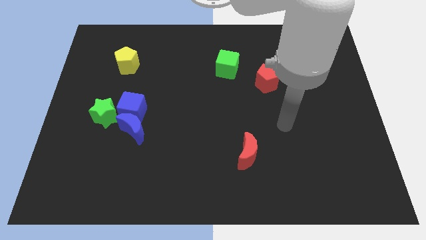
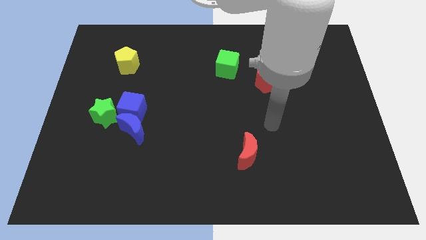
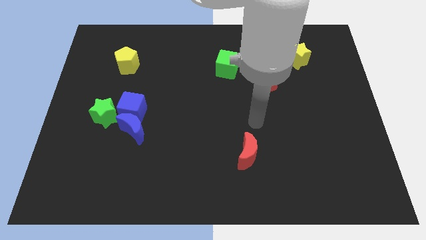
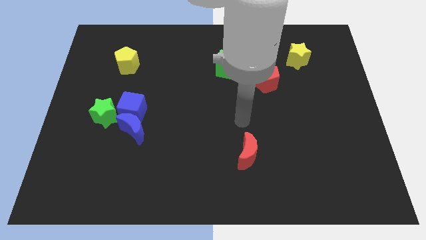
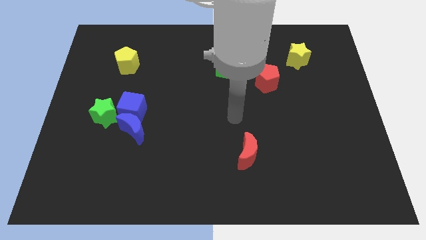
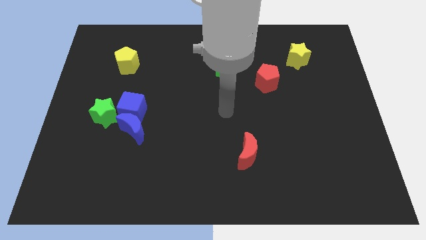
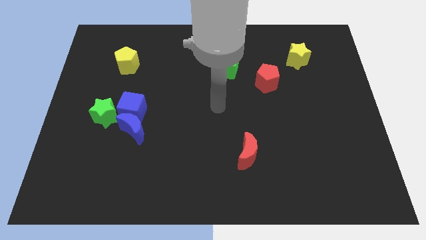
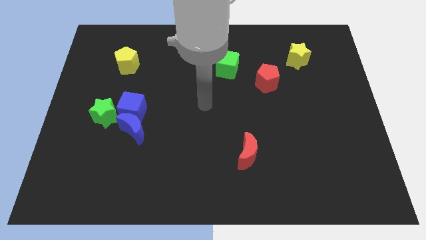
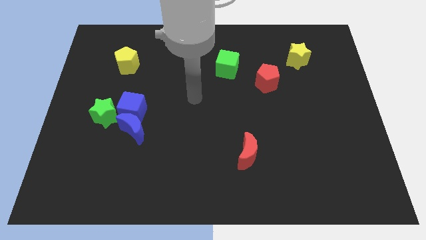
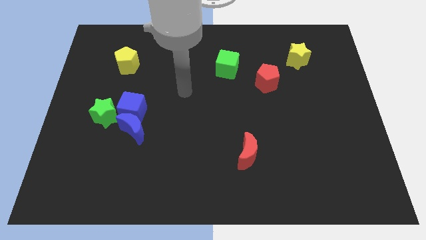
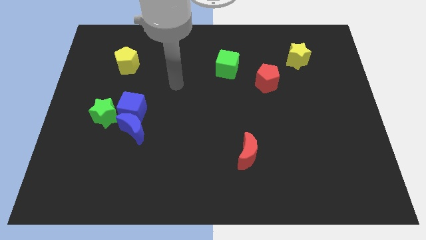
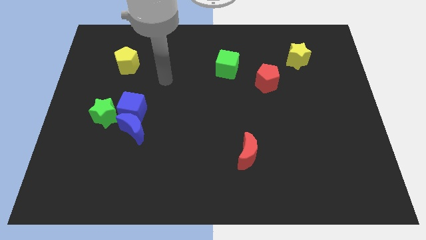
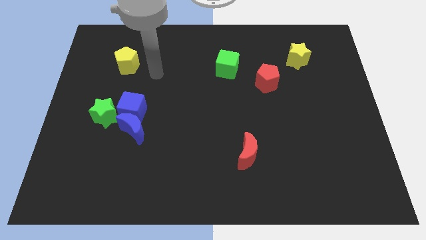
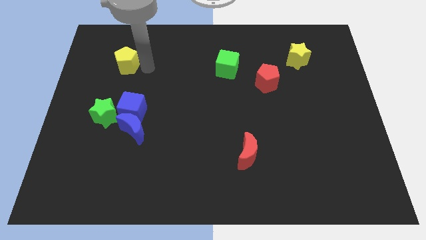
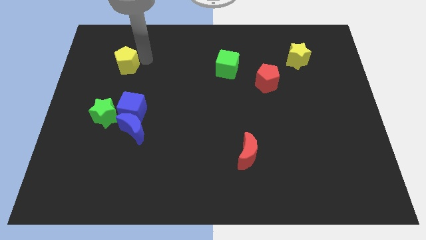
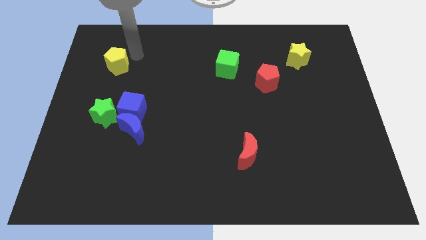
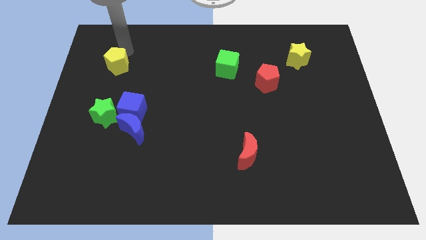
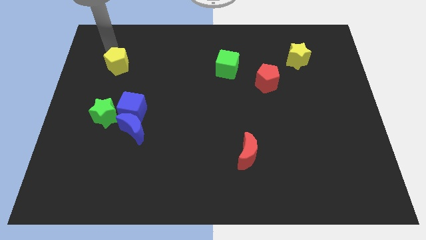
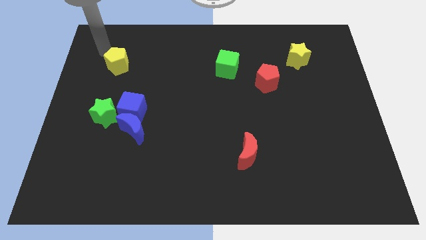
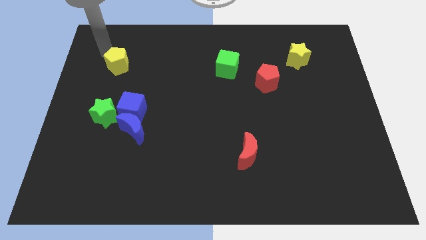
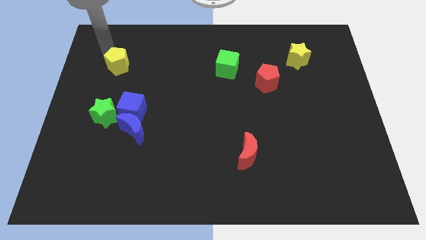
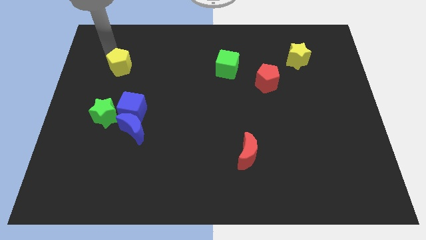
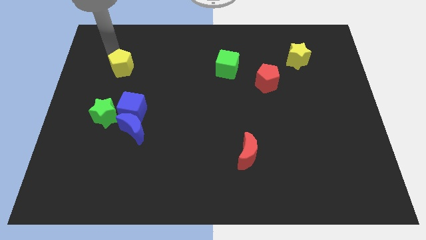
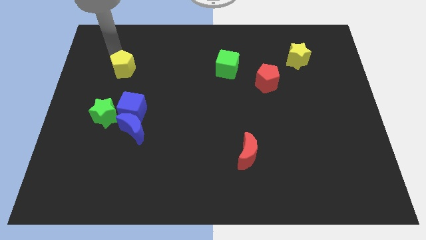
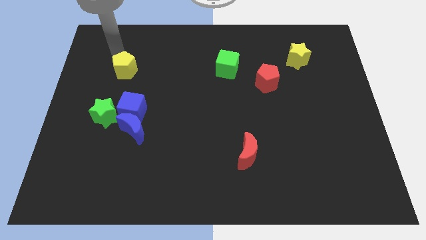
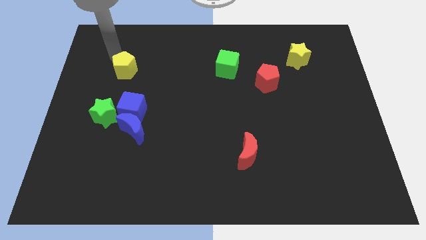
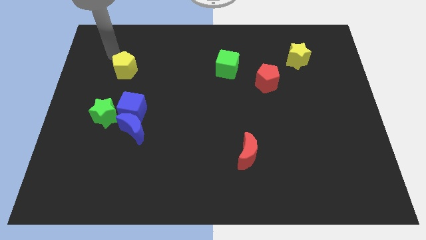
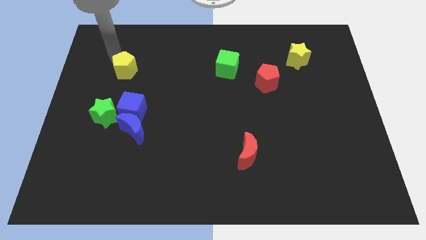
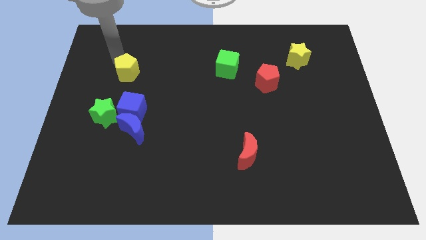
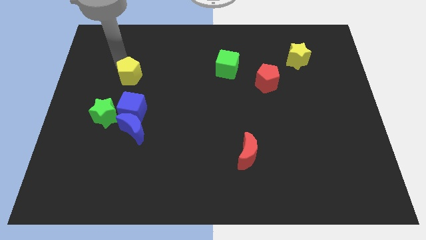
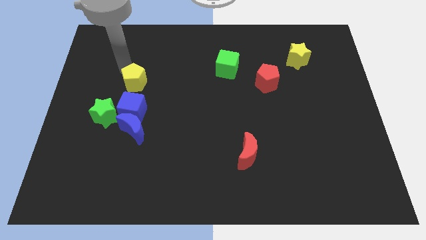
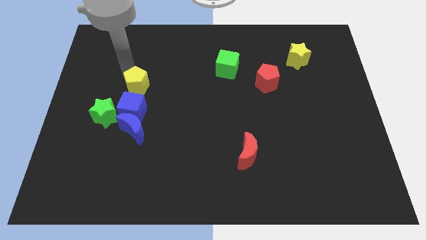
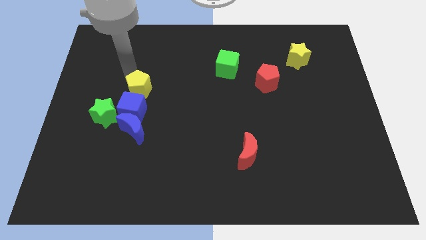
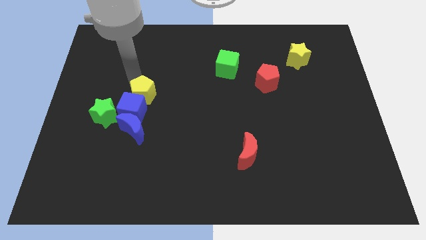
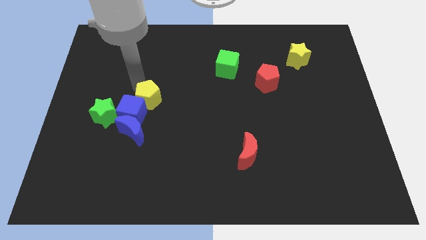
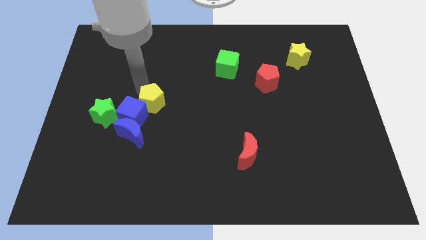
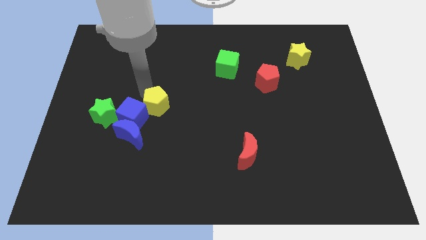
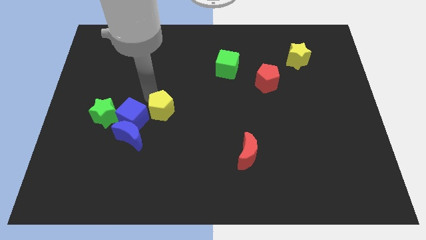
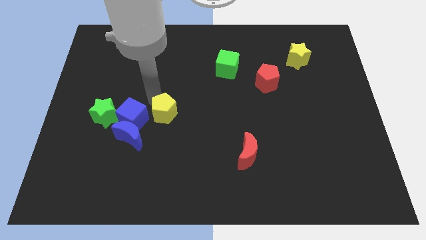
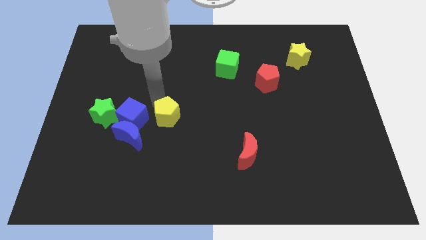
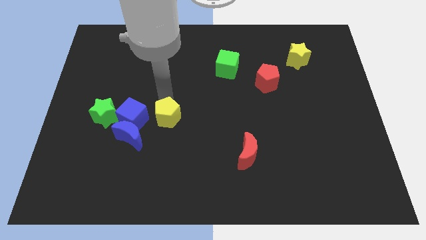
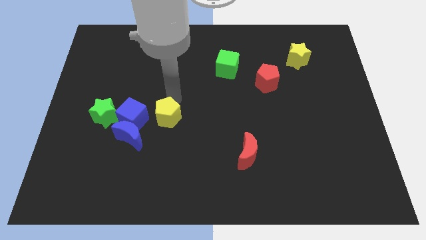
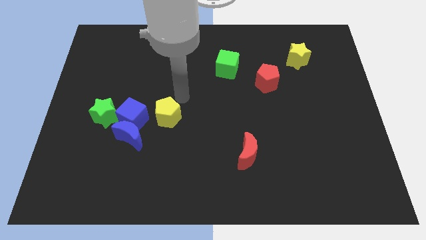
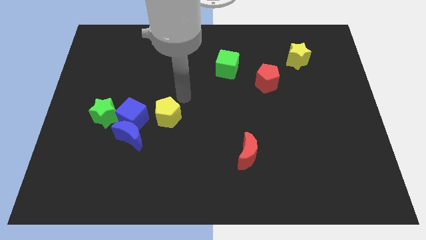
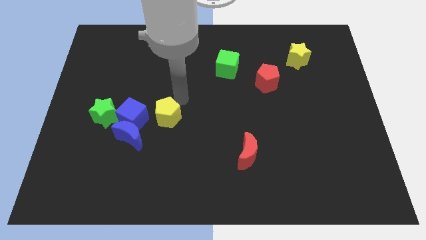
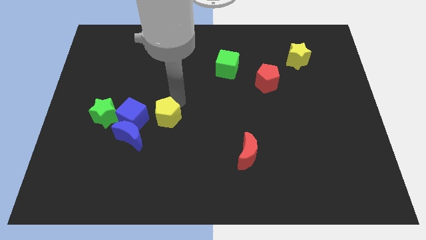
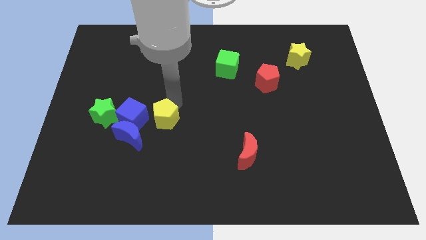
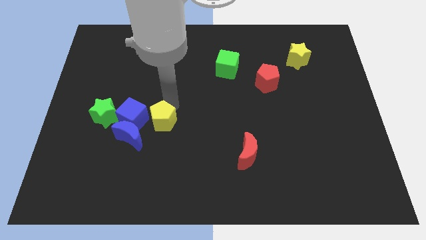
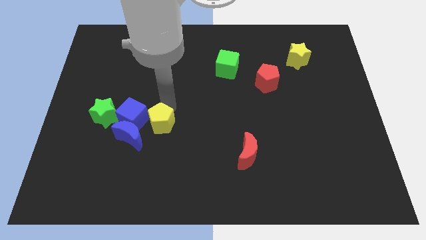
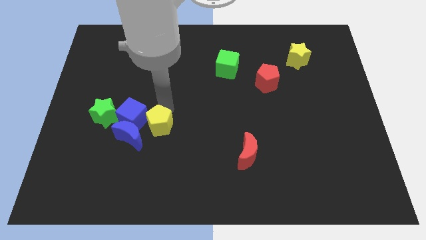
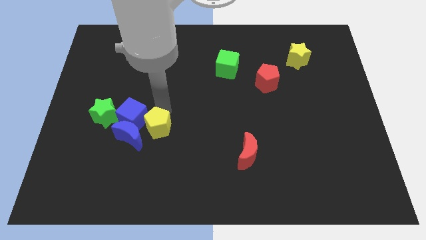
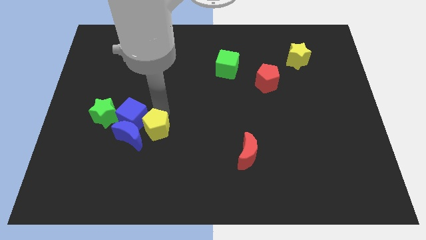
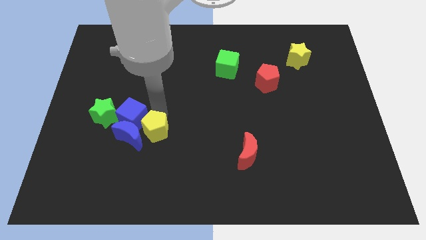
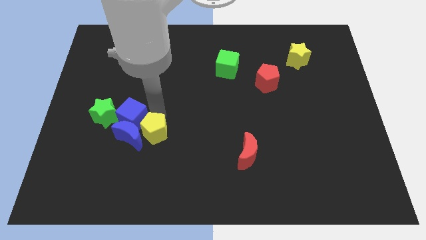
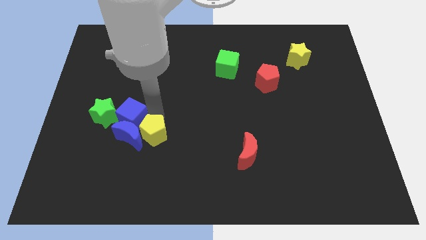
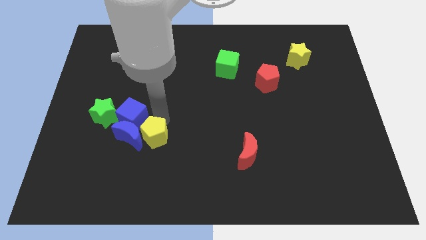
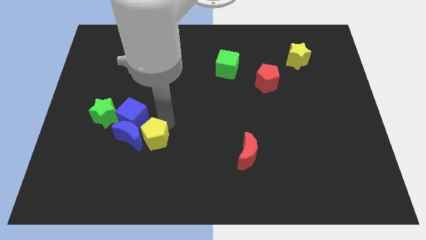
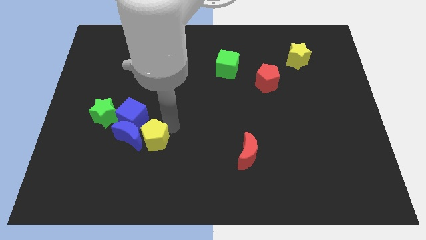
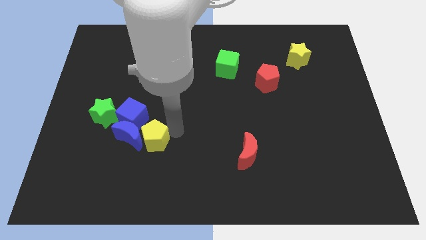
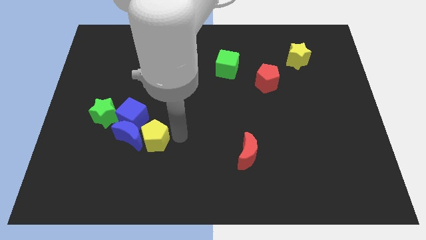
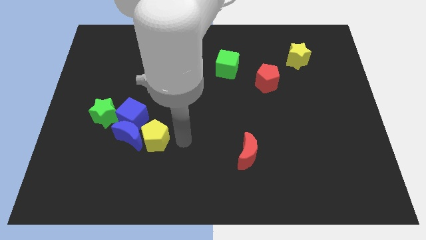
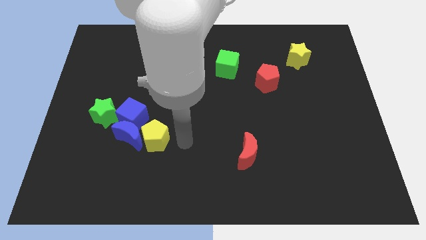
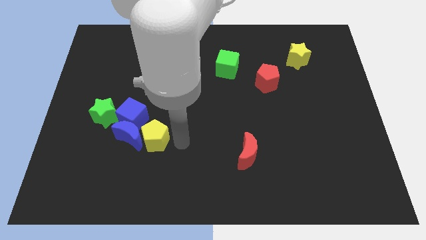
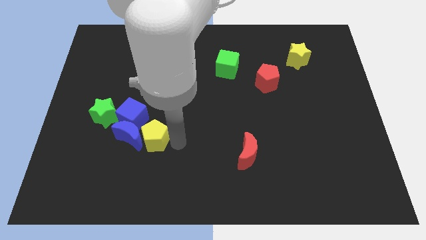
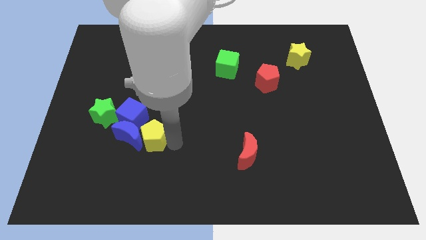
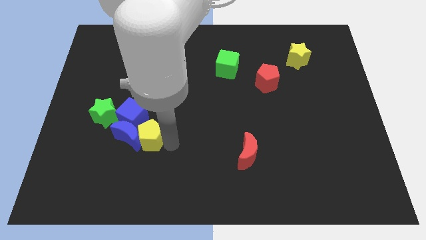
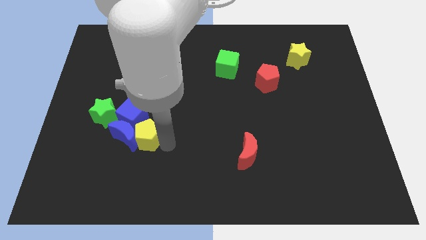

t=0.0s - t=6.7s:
push the yellow pentagon to the bottom right side of the green star
